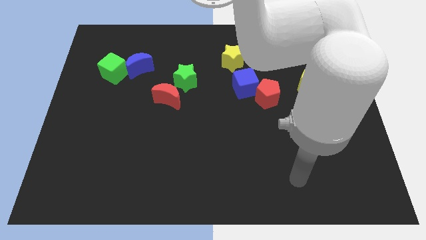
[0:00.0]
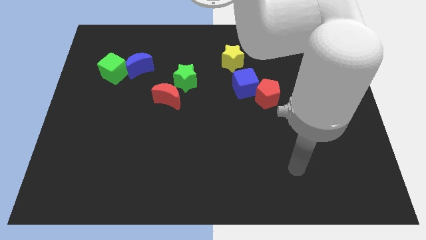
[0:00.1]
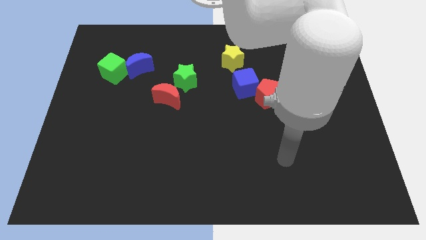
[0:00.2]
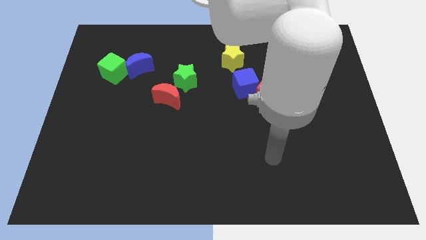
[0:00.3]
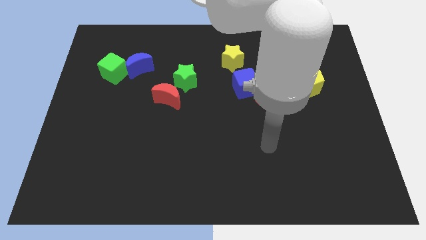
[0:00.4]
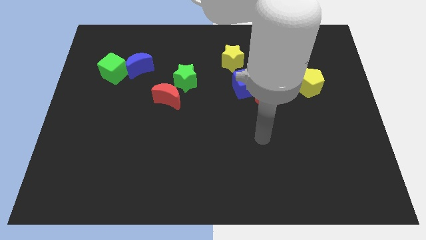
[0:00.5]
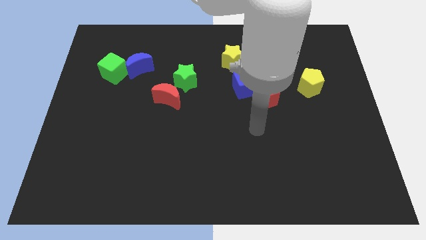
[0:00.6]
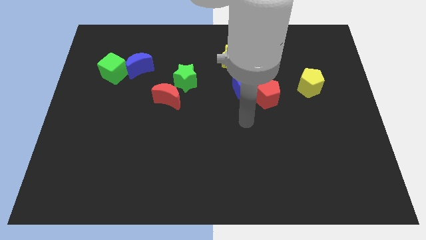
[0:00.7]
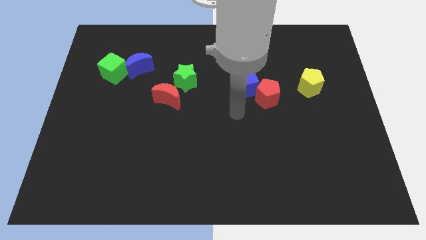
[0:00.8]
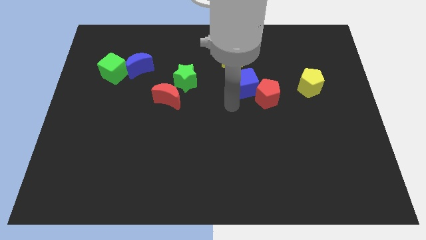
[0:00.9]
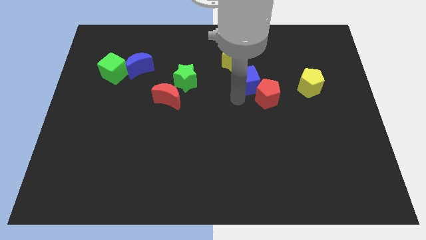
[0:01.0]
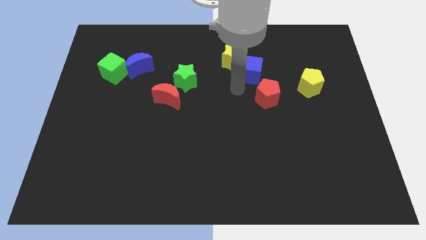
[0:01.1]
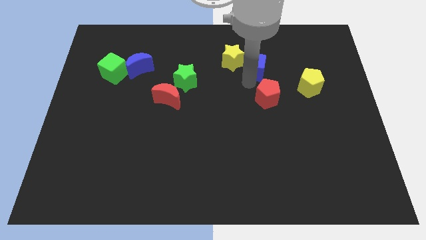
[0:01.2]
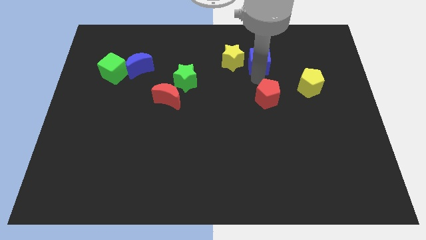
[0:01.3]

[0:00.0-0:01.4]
pull the red pentagon apart from the blue cube

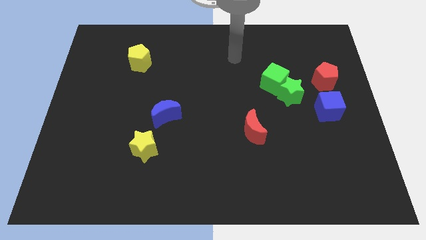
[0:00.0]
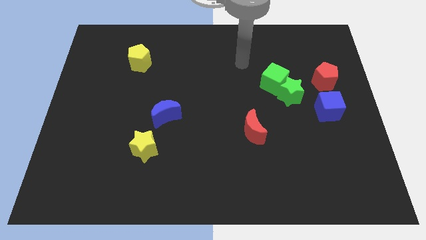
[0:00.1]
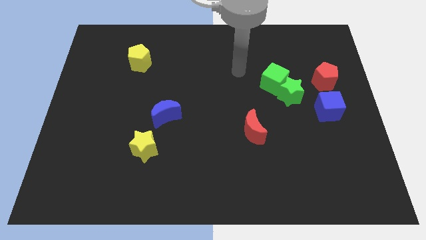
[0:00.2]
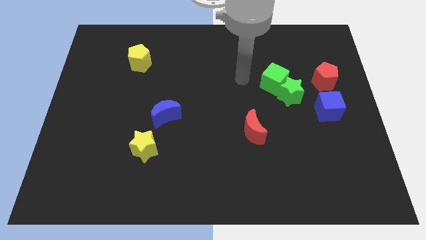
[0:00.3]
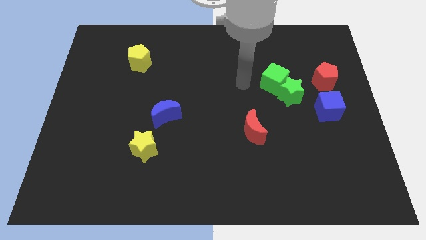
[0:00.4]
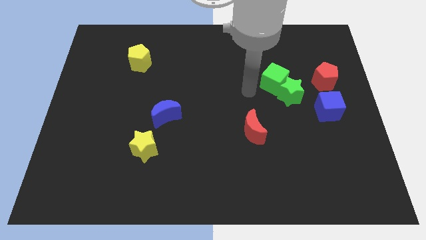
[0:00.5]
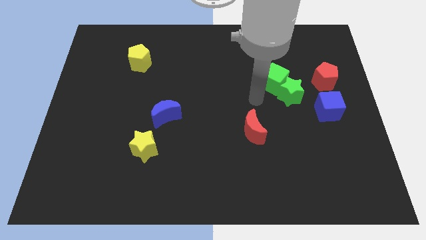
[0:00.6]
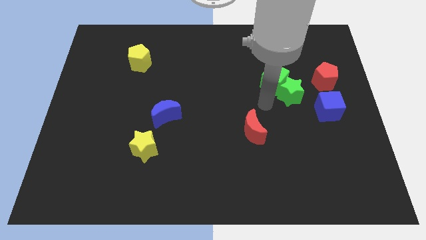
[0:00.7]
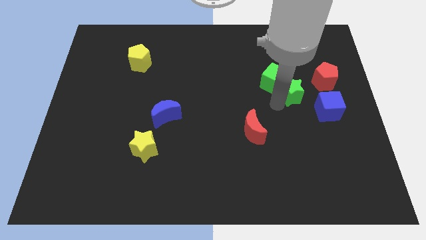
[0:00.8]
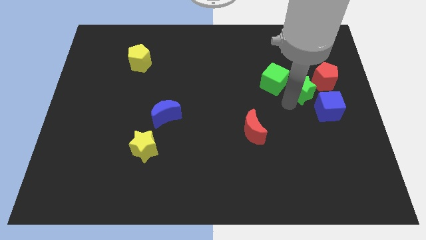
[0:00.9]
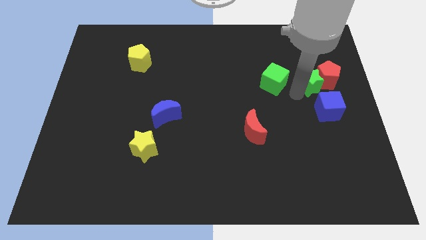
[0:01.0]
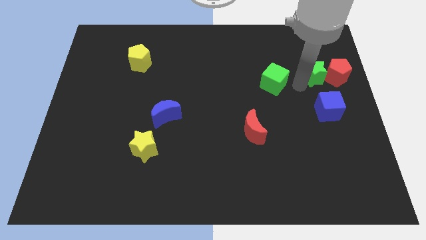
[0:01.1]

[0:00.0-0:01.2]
pull the green cube apart from the green star

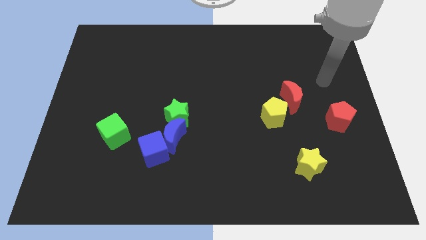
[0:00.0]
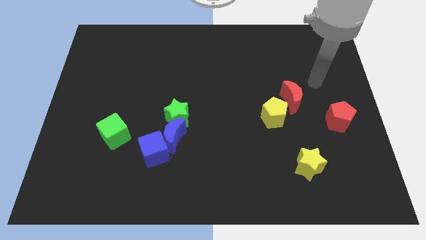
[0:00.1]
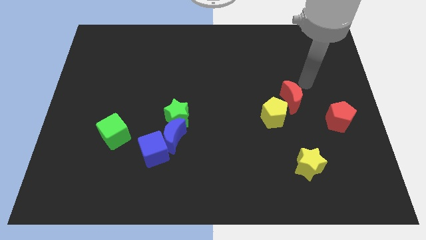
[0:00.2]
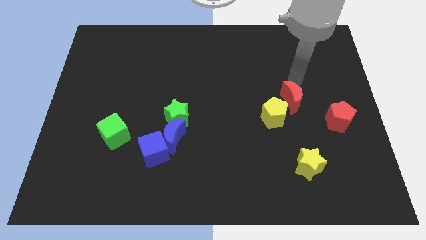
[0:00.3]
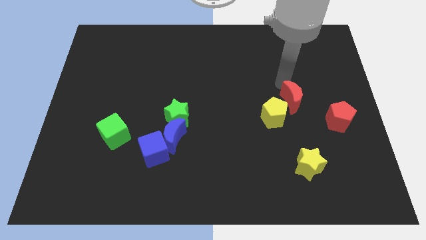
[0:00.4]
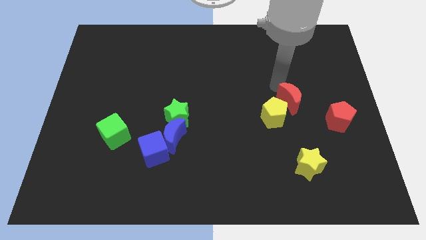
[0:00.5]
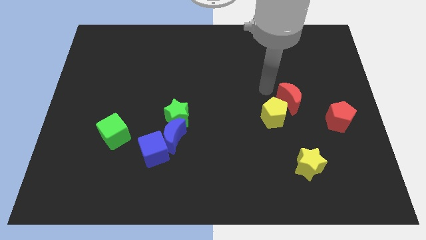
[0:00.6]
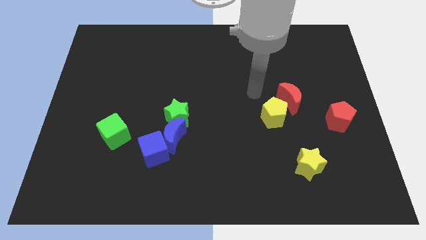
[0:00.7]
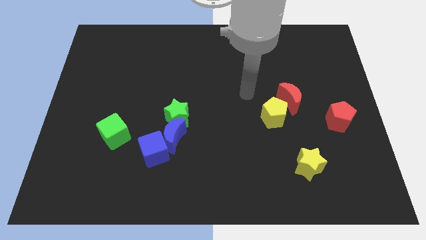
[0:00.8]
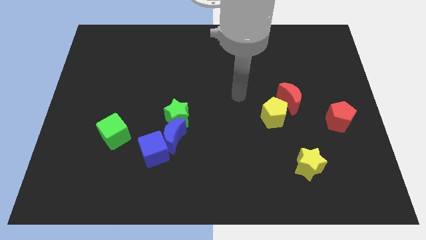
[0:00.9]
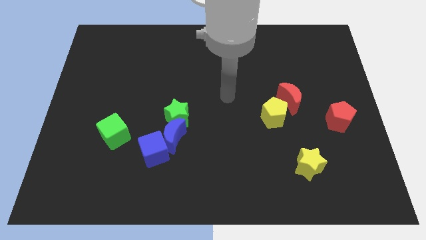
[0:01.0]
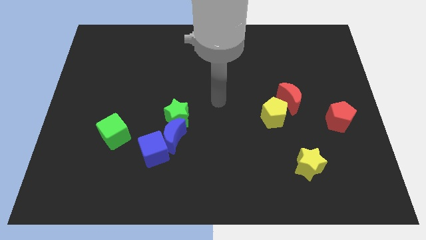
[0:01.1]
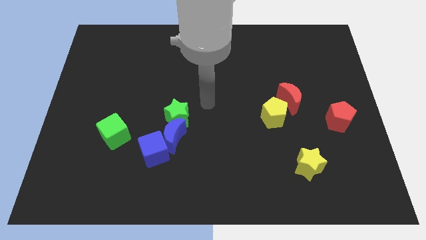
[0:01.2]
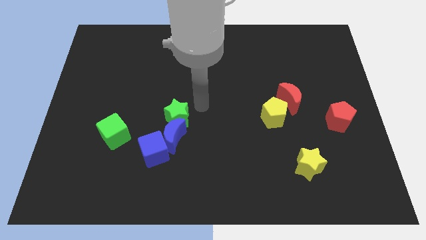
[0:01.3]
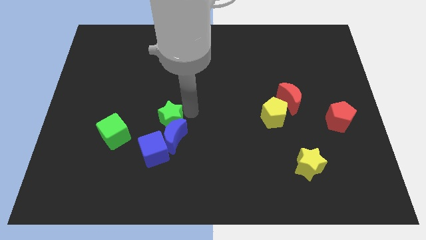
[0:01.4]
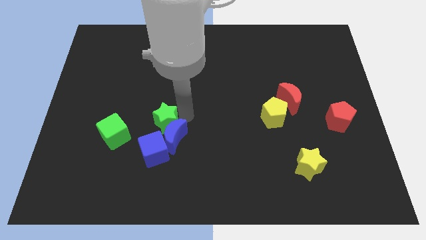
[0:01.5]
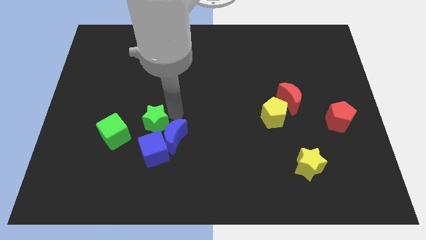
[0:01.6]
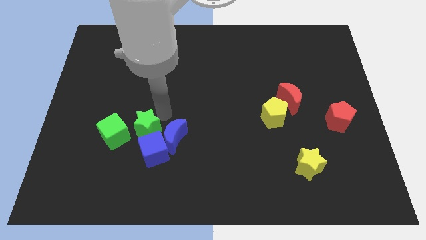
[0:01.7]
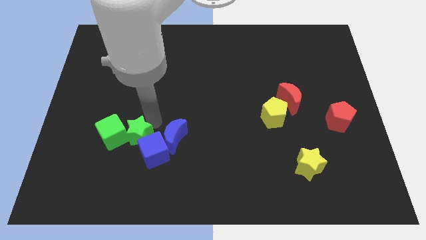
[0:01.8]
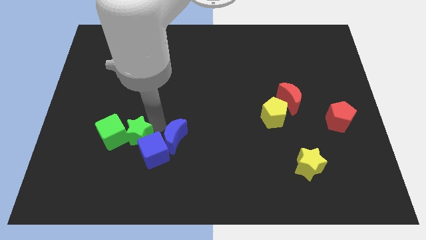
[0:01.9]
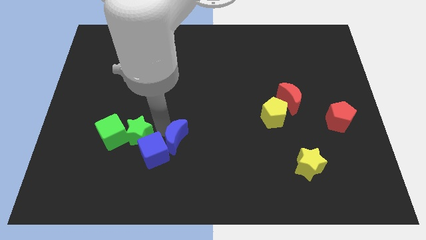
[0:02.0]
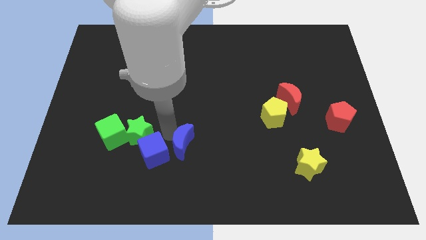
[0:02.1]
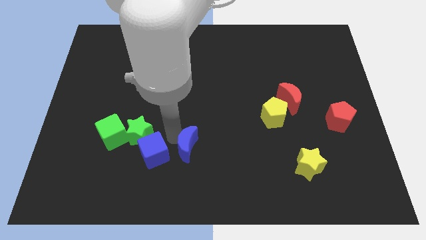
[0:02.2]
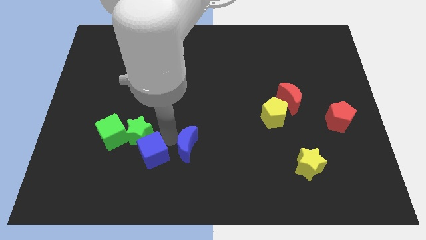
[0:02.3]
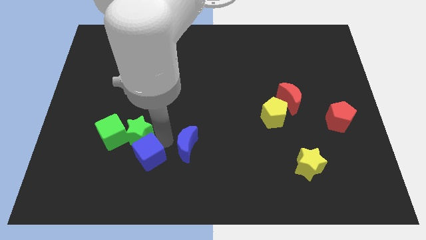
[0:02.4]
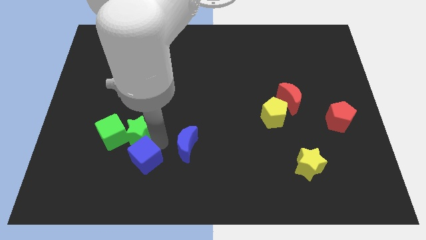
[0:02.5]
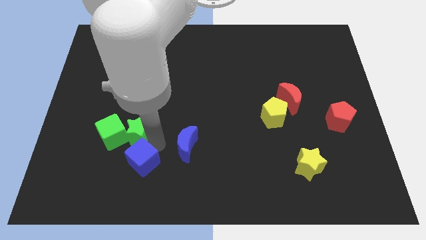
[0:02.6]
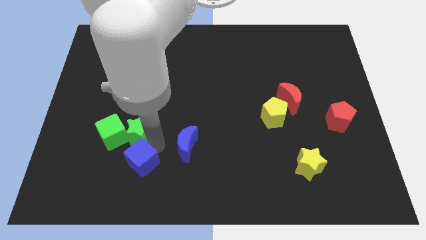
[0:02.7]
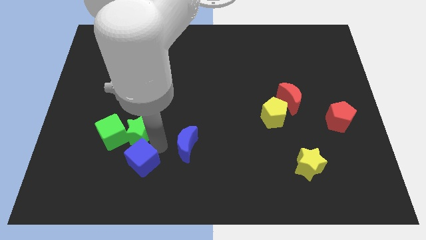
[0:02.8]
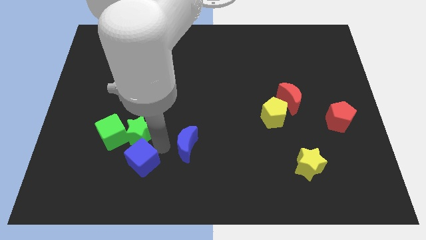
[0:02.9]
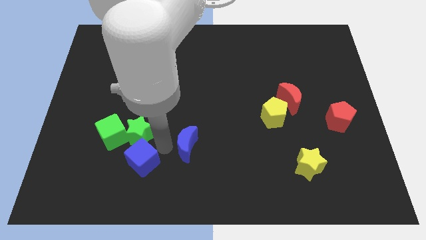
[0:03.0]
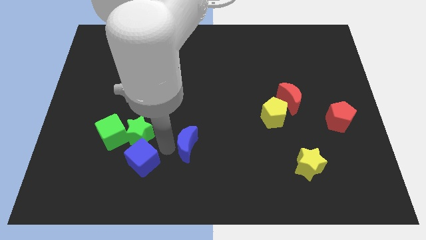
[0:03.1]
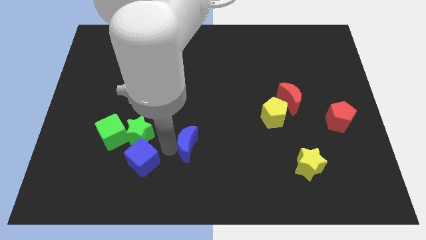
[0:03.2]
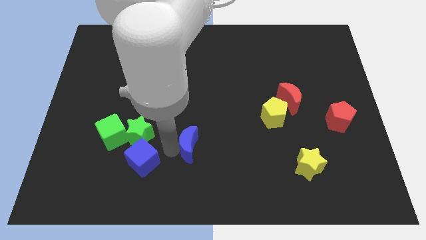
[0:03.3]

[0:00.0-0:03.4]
separate the blue moon from the blue cube and green star

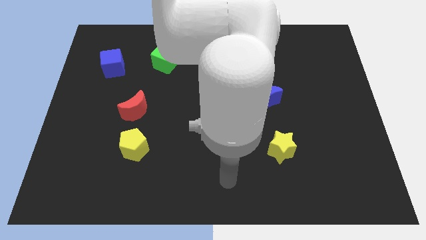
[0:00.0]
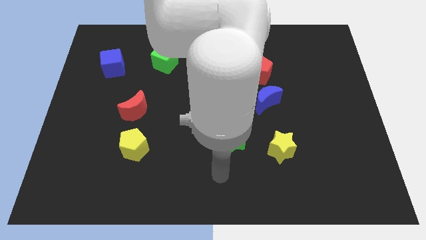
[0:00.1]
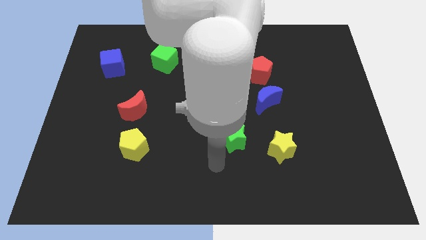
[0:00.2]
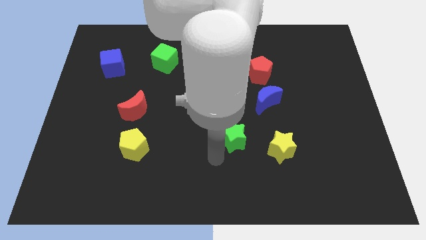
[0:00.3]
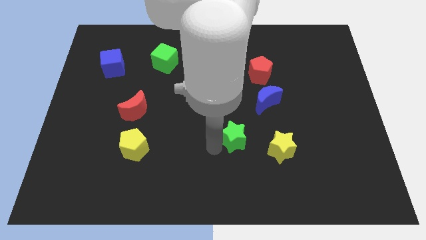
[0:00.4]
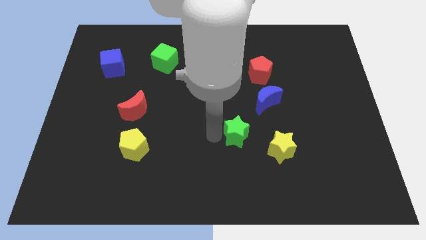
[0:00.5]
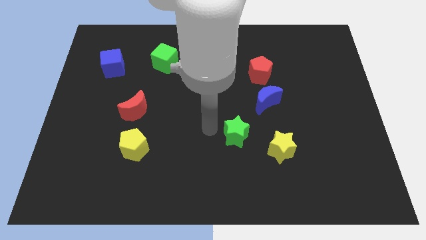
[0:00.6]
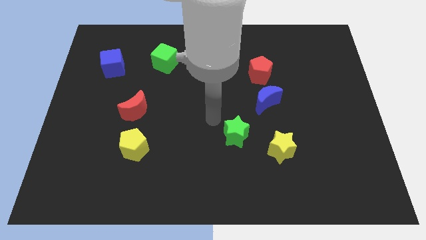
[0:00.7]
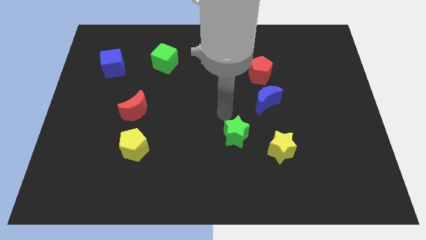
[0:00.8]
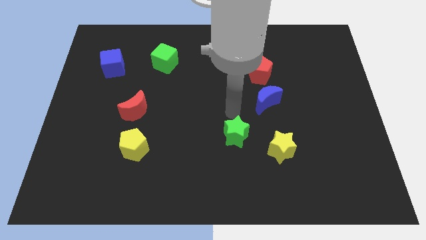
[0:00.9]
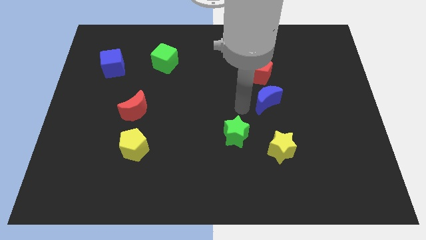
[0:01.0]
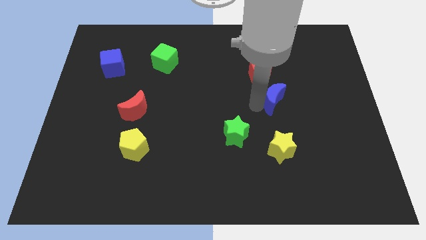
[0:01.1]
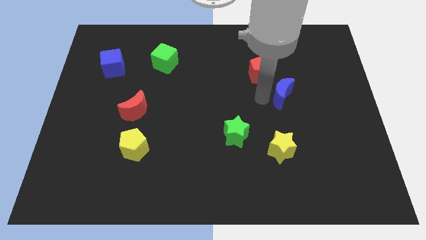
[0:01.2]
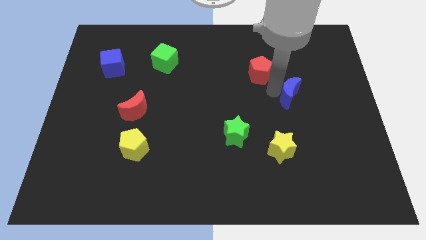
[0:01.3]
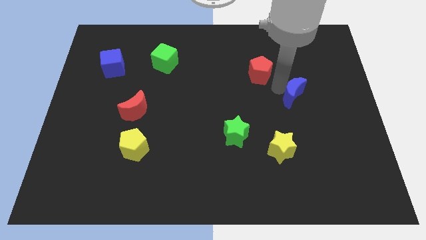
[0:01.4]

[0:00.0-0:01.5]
separate the red pentagon from the blue moon

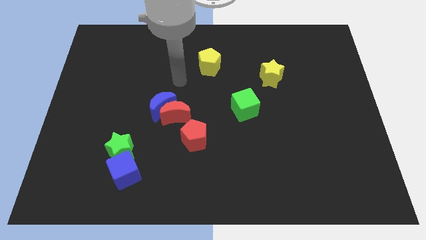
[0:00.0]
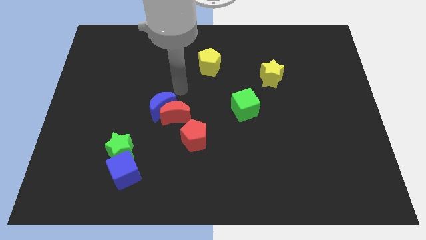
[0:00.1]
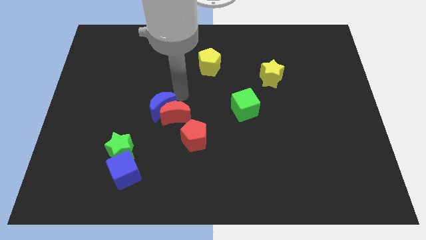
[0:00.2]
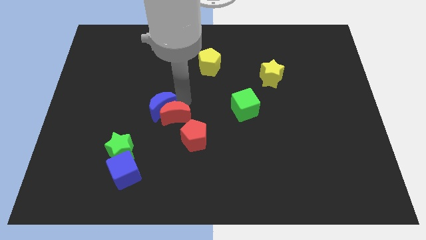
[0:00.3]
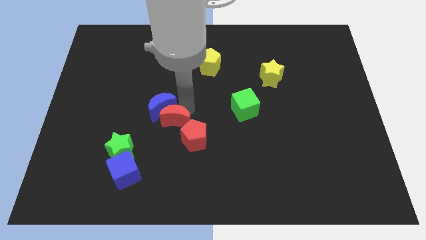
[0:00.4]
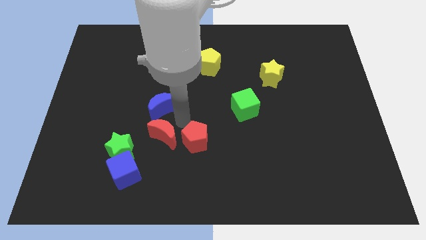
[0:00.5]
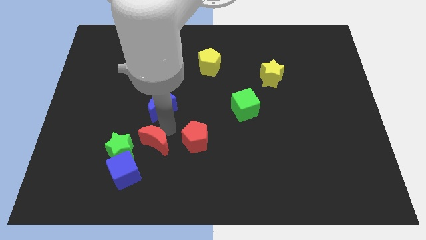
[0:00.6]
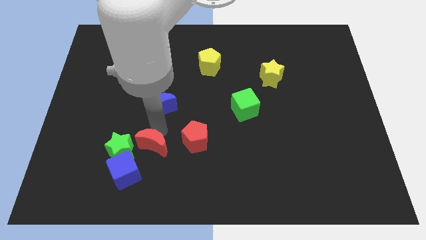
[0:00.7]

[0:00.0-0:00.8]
separate the blue moon from the red moon

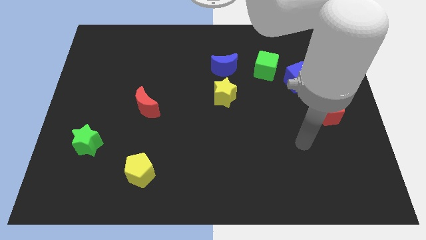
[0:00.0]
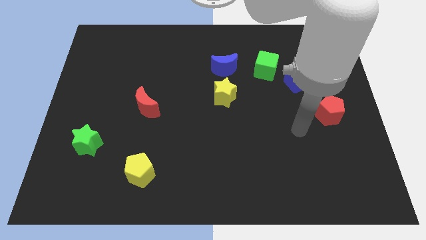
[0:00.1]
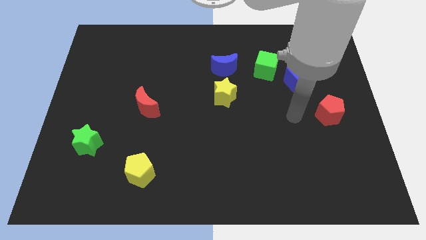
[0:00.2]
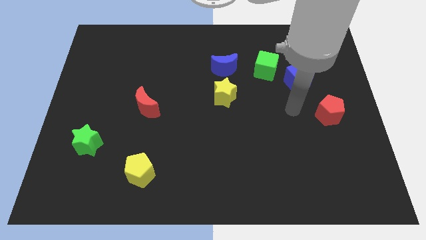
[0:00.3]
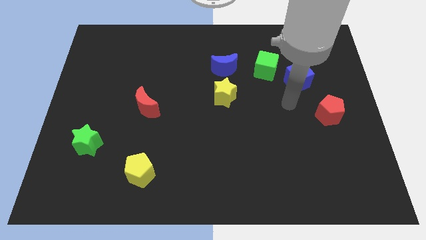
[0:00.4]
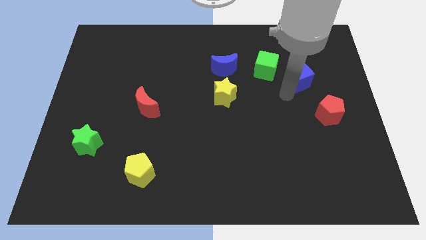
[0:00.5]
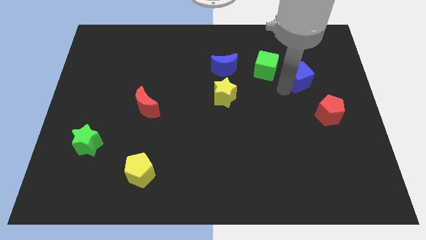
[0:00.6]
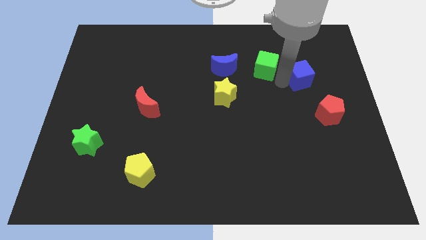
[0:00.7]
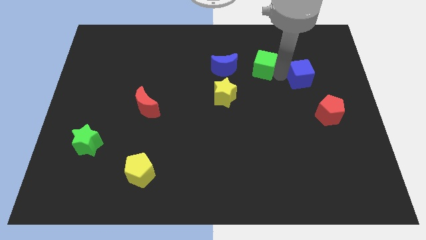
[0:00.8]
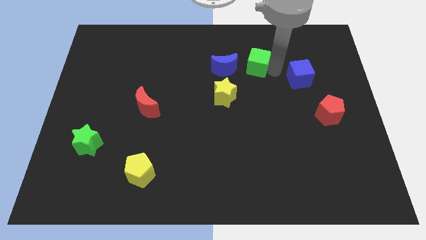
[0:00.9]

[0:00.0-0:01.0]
pull the blue cube apart from the green cube
